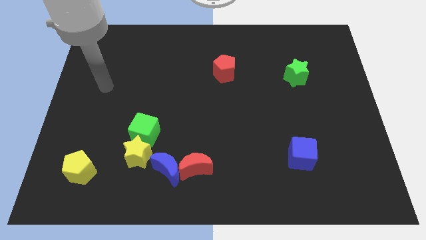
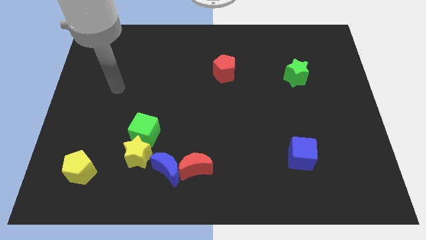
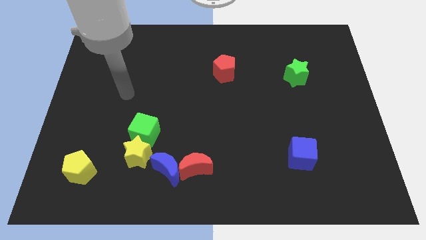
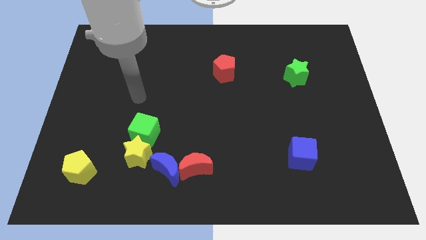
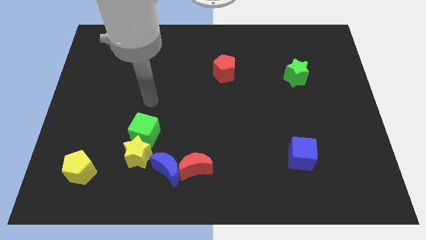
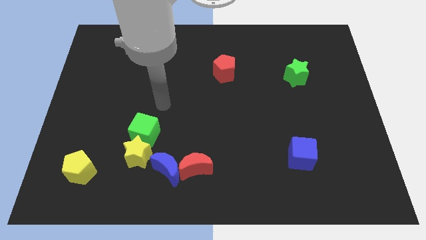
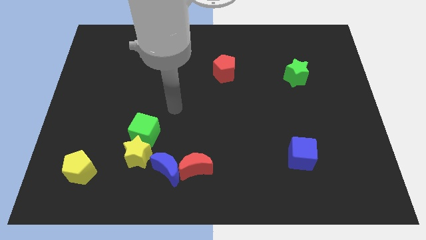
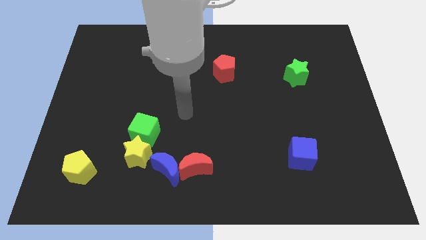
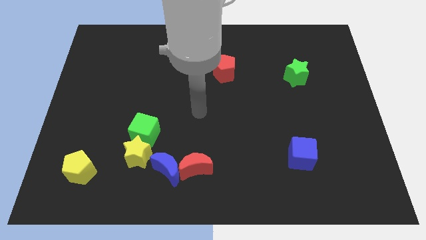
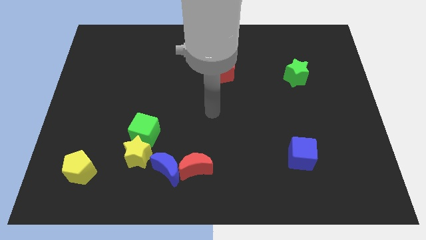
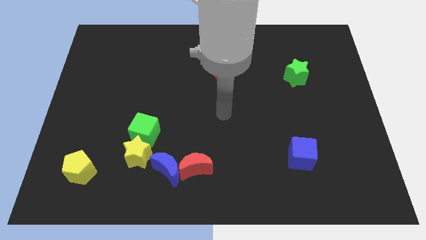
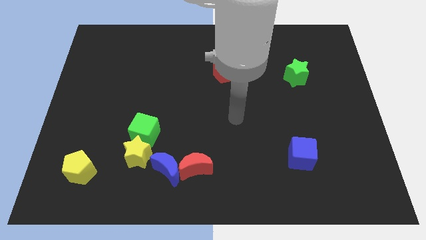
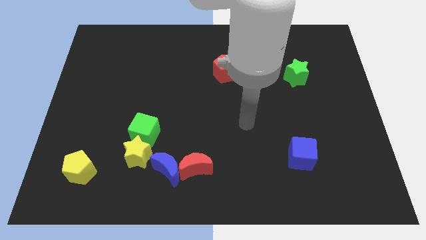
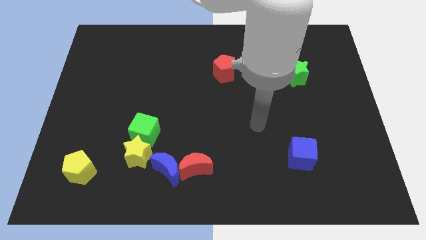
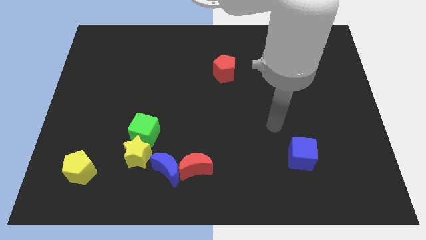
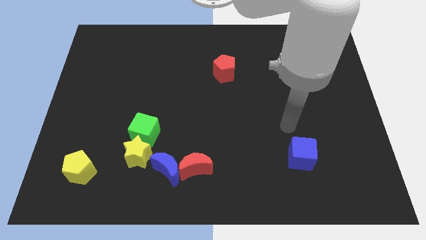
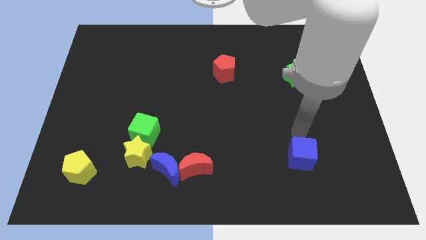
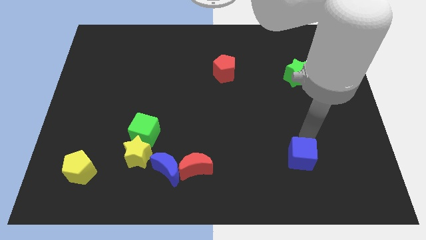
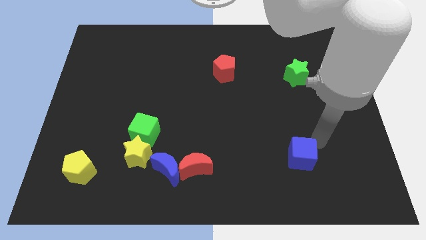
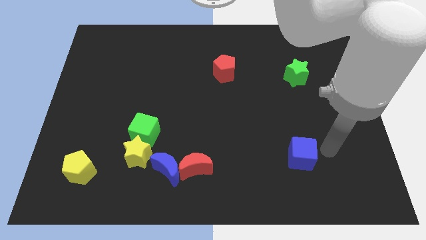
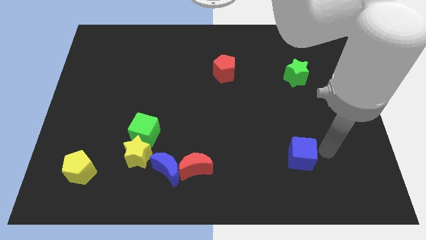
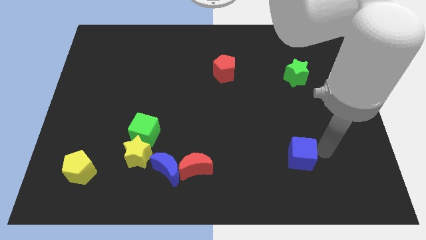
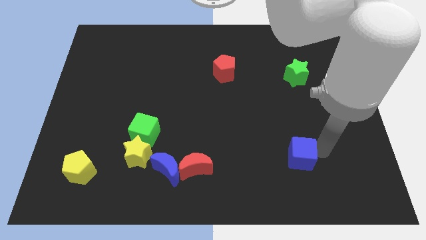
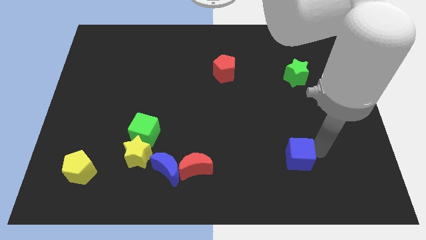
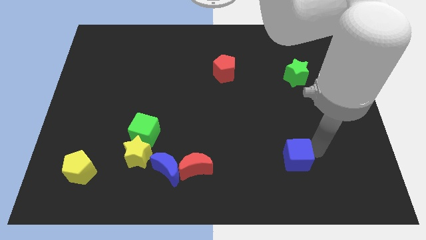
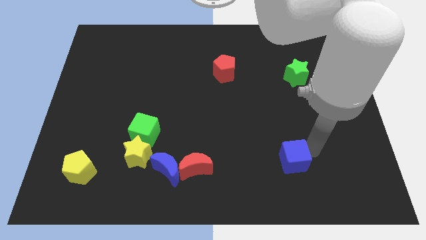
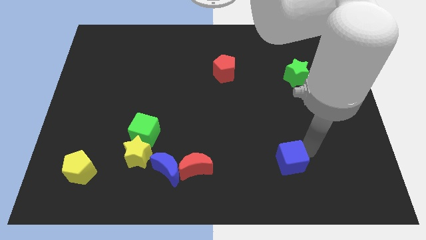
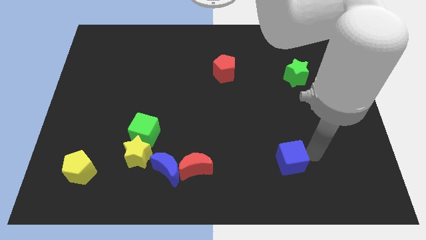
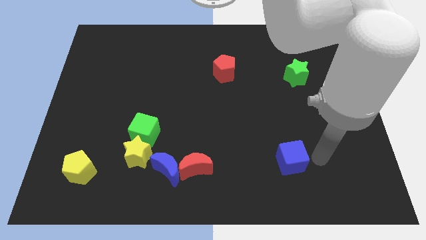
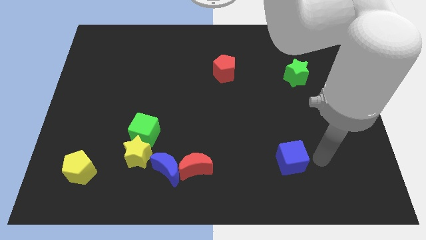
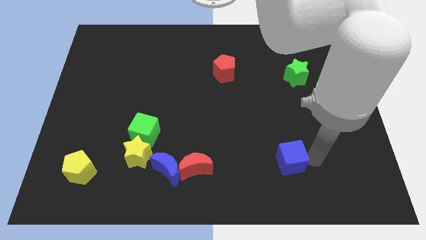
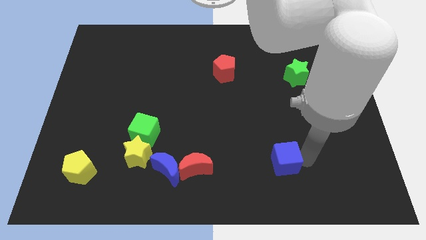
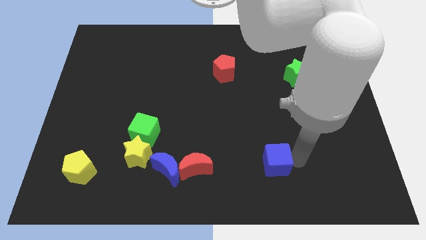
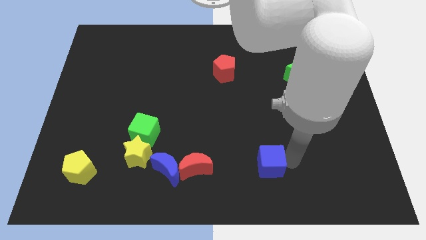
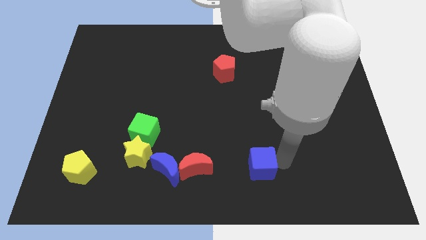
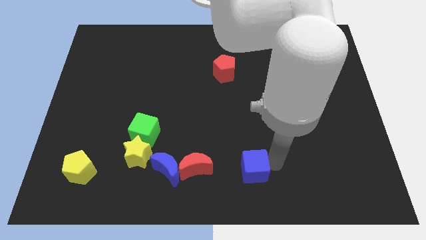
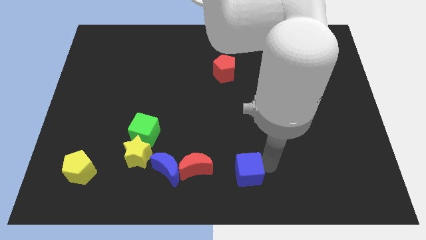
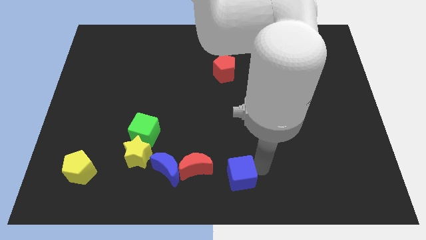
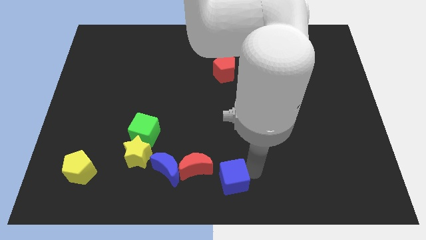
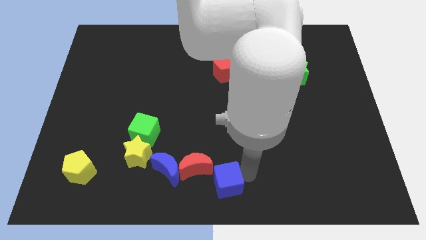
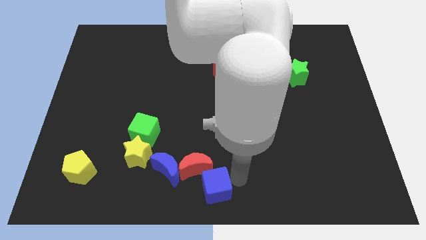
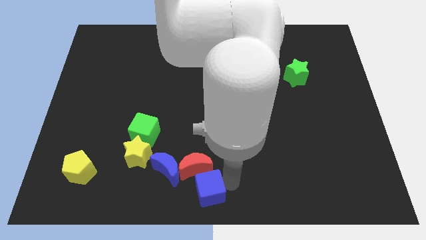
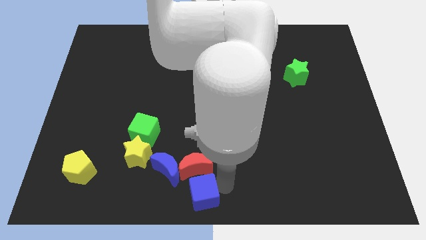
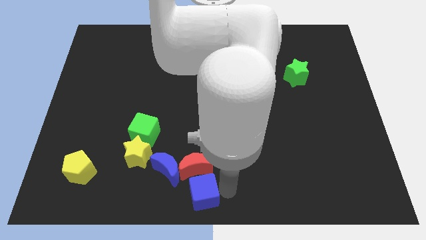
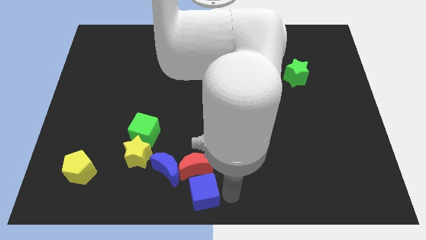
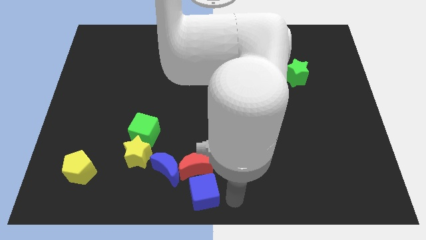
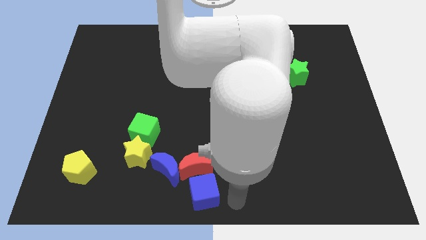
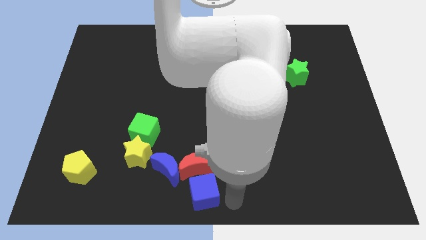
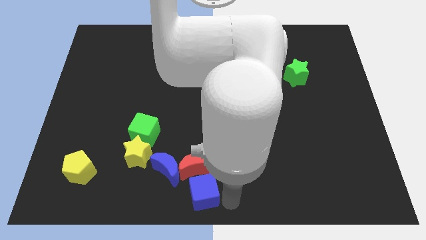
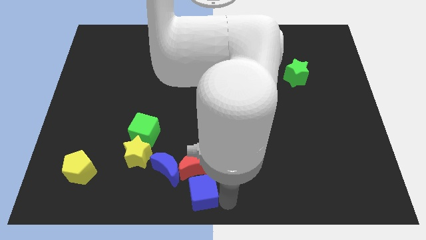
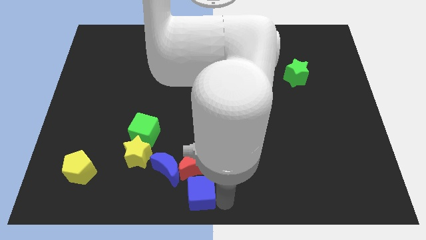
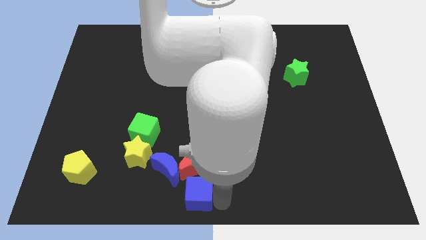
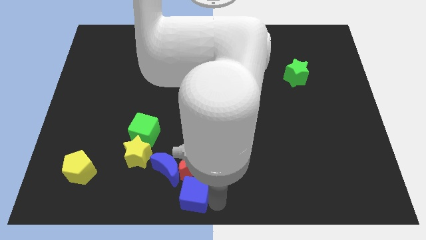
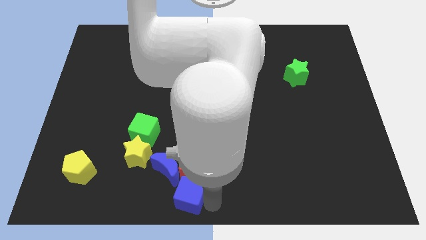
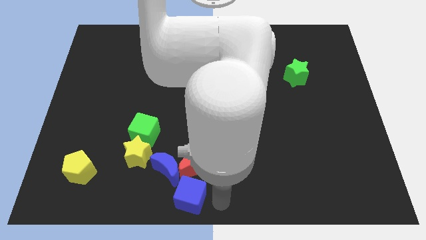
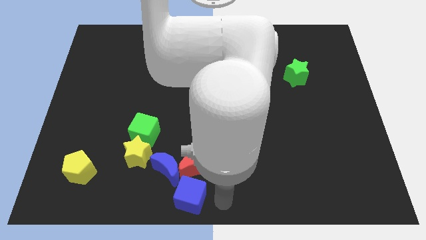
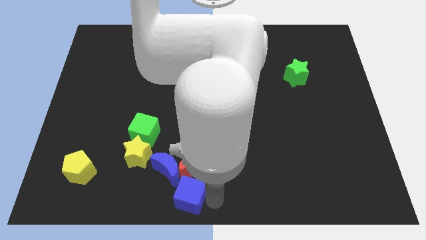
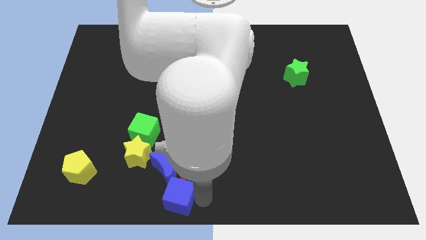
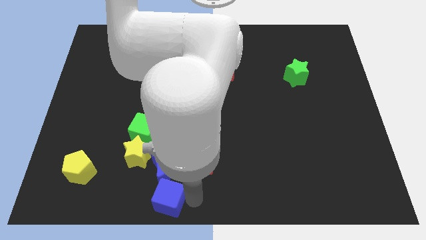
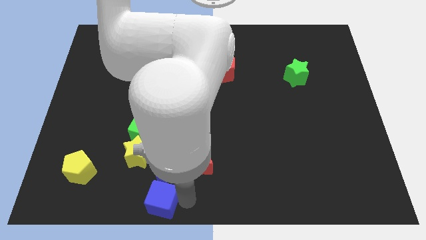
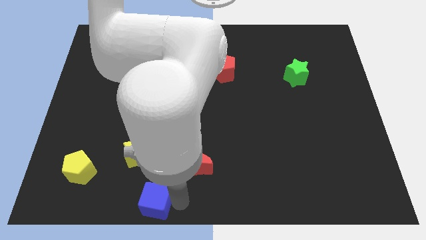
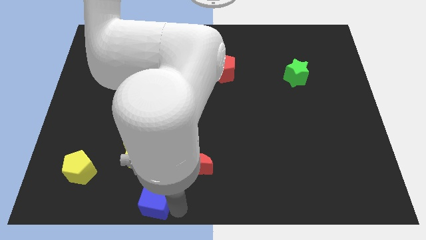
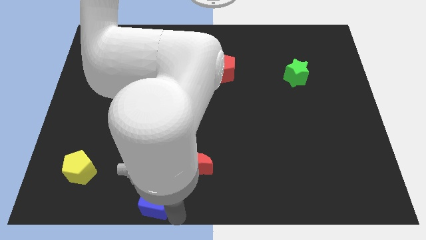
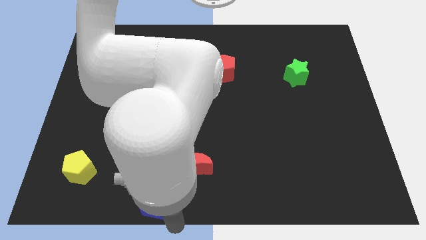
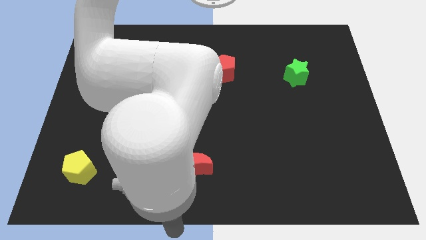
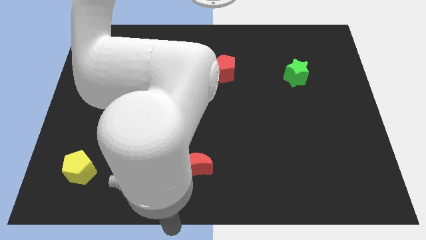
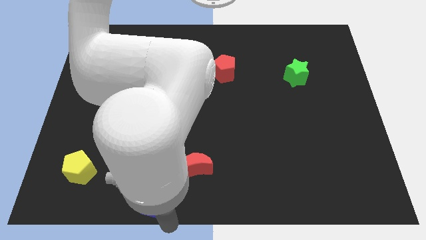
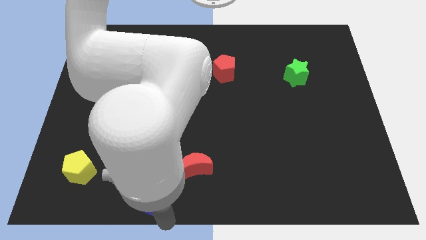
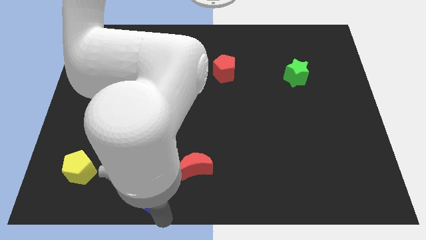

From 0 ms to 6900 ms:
move the blue cube to the bottom side of the green cube
